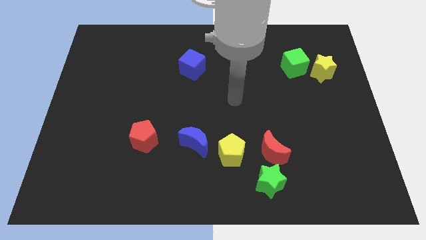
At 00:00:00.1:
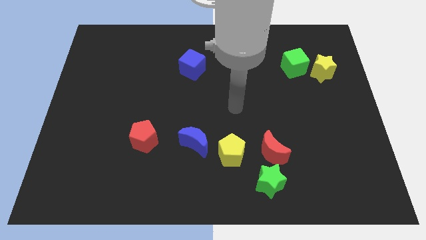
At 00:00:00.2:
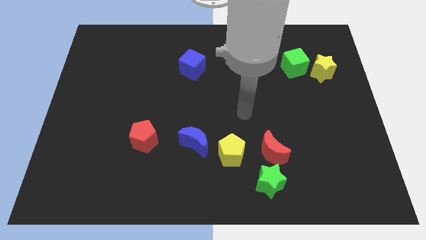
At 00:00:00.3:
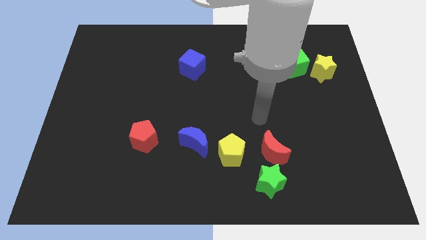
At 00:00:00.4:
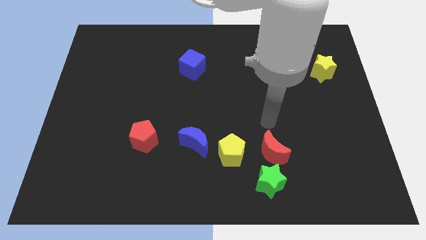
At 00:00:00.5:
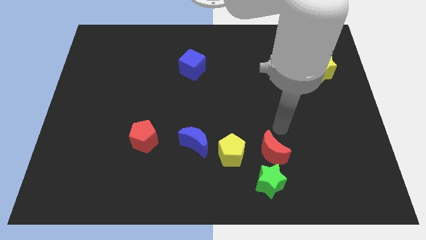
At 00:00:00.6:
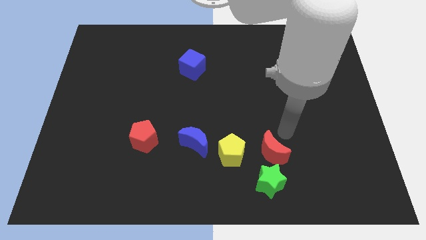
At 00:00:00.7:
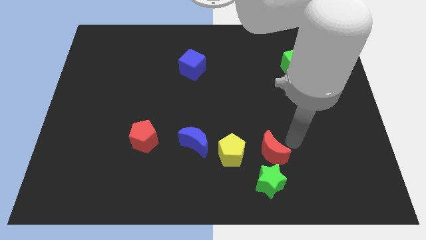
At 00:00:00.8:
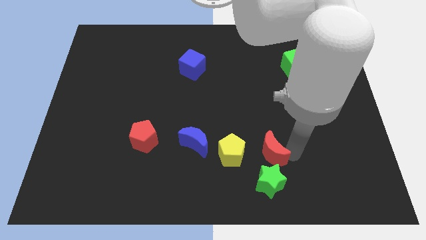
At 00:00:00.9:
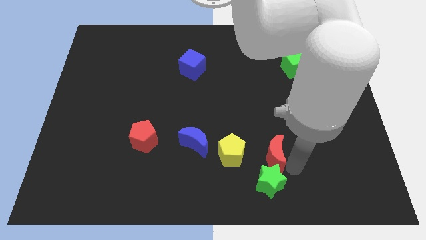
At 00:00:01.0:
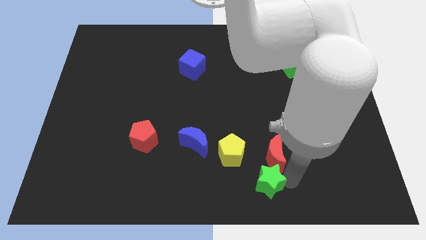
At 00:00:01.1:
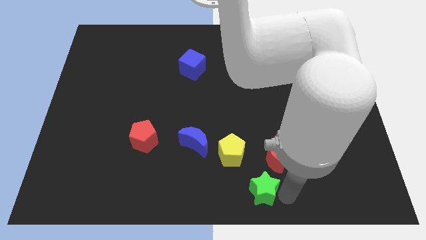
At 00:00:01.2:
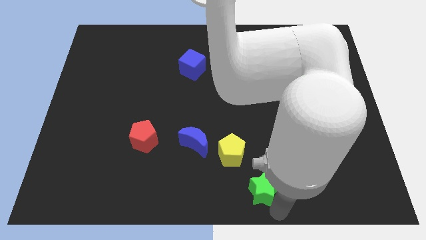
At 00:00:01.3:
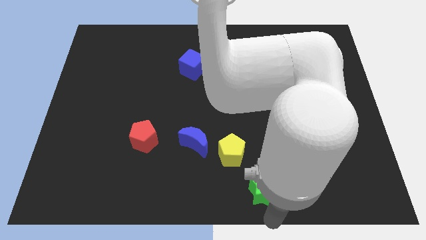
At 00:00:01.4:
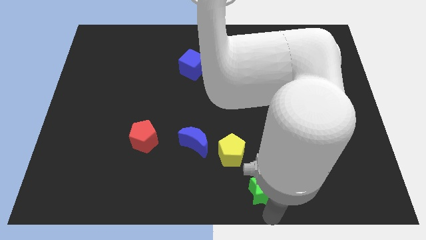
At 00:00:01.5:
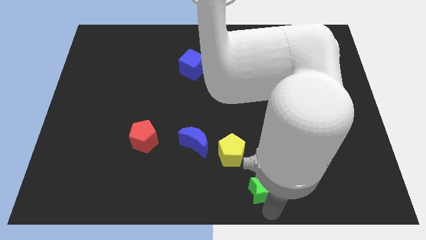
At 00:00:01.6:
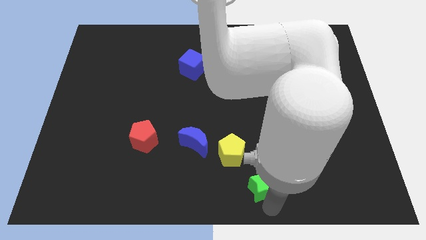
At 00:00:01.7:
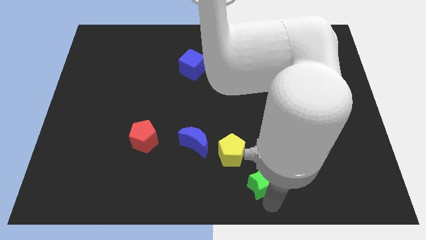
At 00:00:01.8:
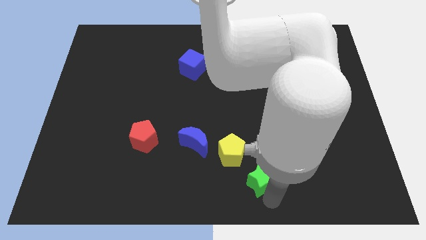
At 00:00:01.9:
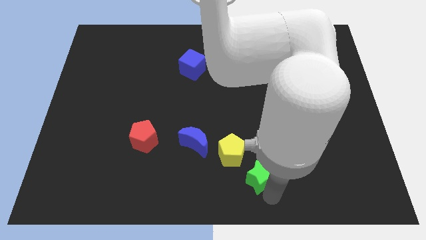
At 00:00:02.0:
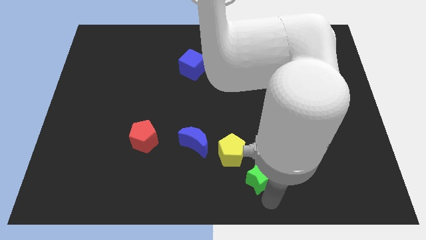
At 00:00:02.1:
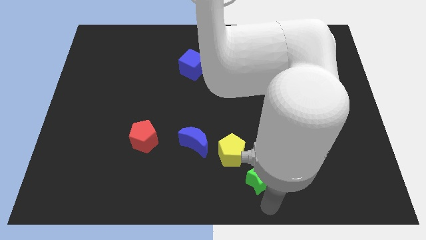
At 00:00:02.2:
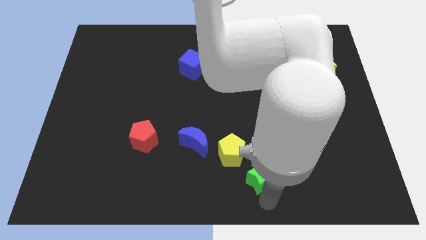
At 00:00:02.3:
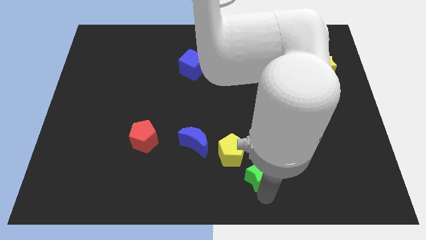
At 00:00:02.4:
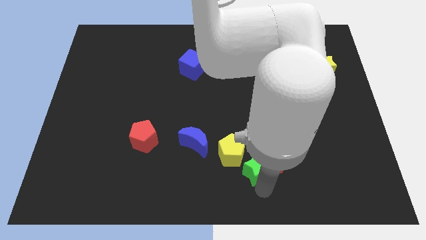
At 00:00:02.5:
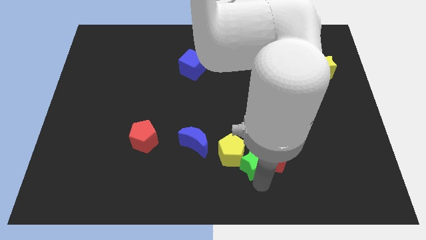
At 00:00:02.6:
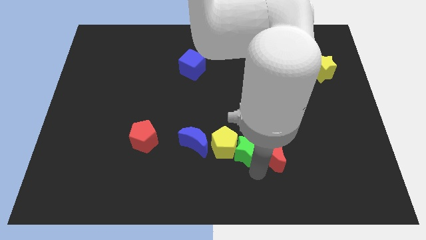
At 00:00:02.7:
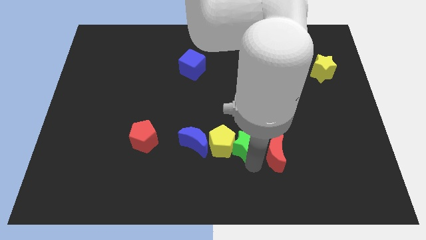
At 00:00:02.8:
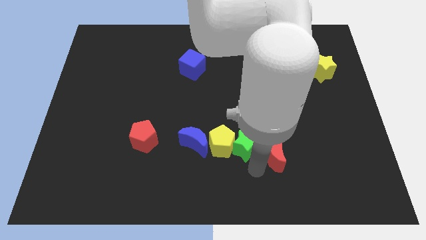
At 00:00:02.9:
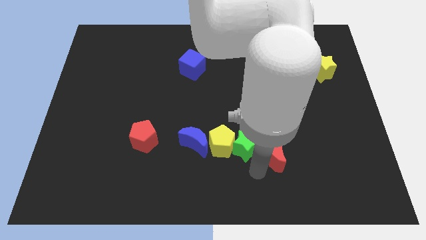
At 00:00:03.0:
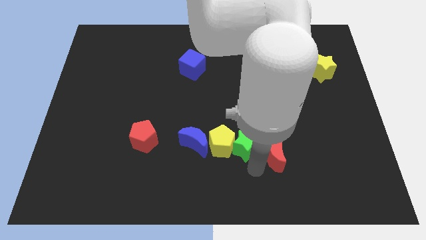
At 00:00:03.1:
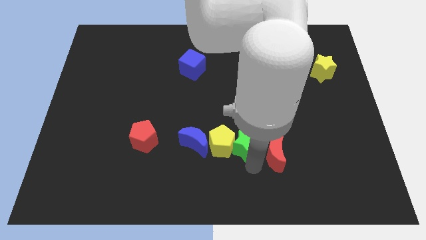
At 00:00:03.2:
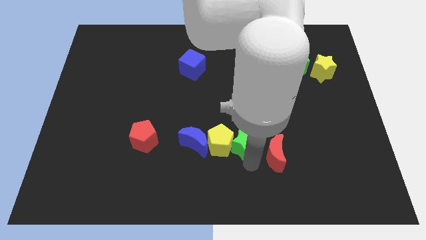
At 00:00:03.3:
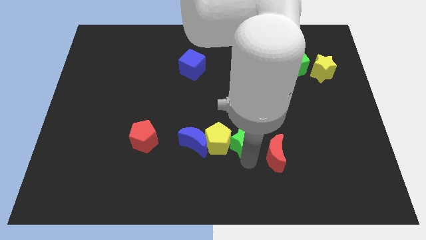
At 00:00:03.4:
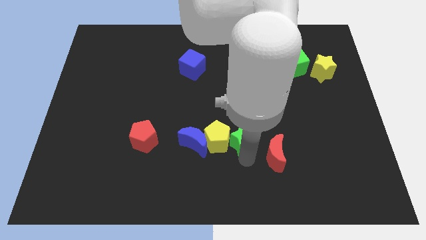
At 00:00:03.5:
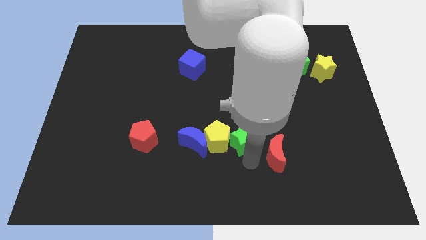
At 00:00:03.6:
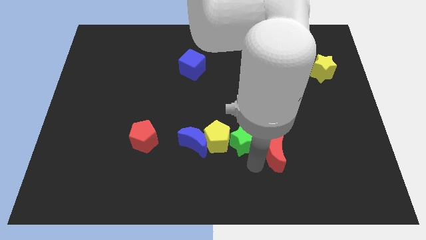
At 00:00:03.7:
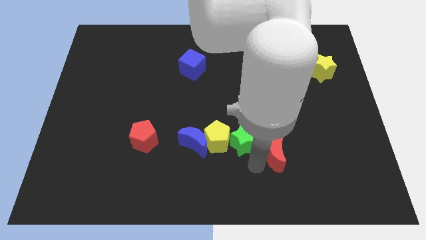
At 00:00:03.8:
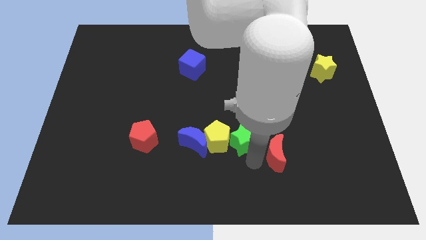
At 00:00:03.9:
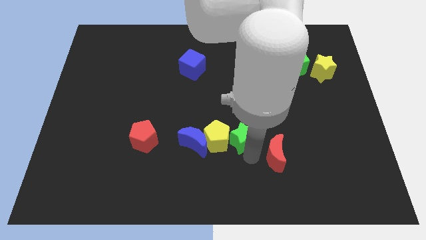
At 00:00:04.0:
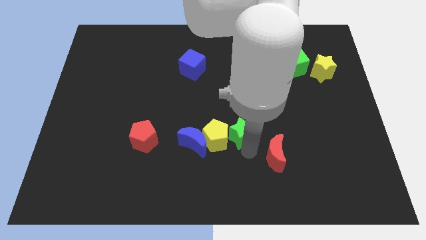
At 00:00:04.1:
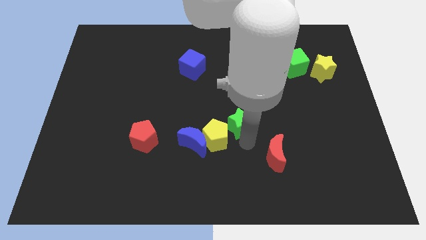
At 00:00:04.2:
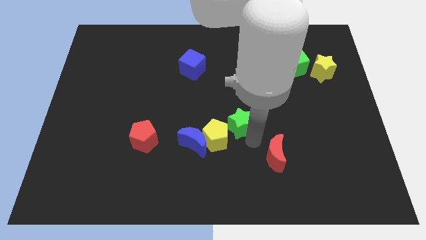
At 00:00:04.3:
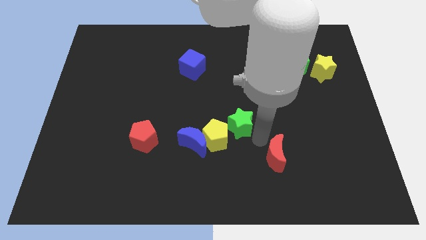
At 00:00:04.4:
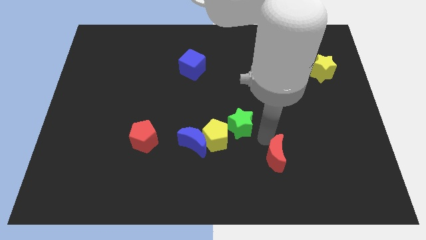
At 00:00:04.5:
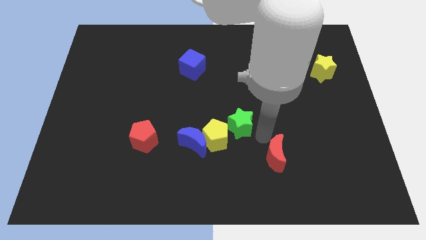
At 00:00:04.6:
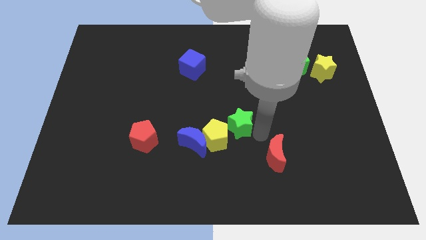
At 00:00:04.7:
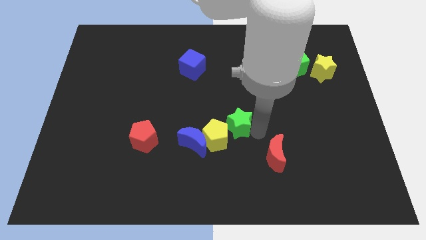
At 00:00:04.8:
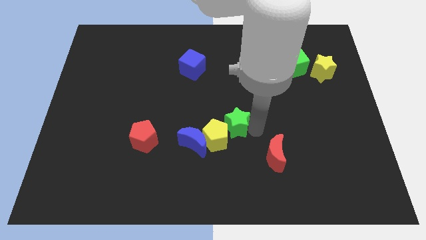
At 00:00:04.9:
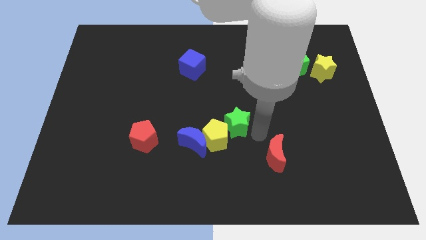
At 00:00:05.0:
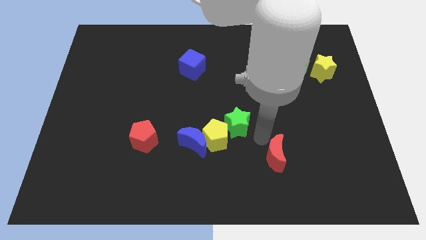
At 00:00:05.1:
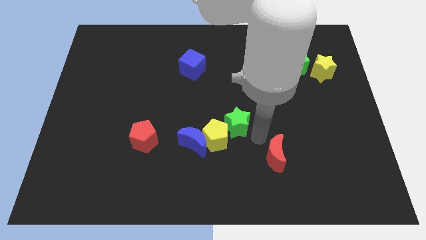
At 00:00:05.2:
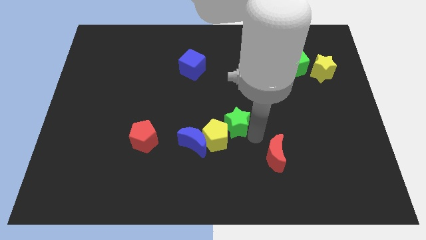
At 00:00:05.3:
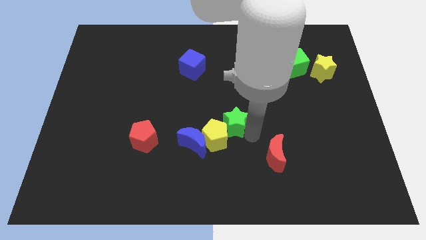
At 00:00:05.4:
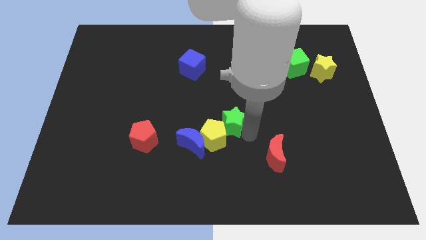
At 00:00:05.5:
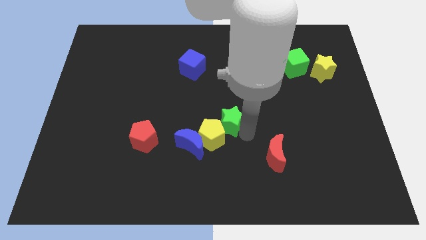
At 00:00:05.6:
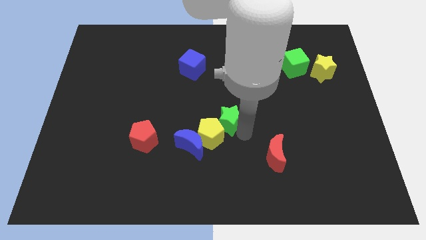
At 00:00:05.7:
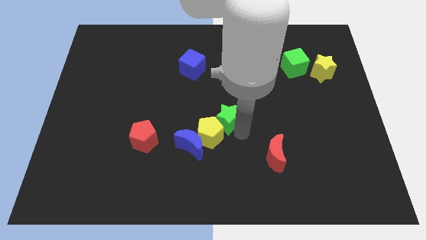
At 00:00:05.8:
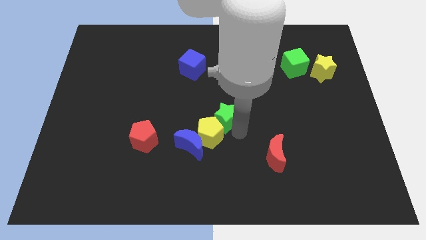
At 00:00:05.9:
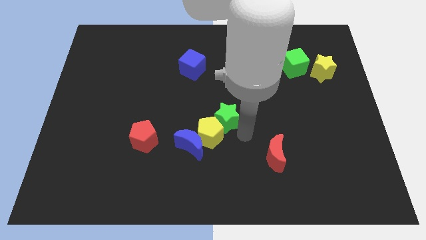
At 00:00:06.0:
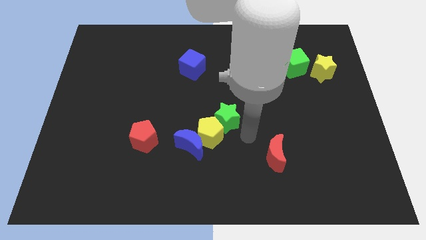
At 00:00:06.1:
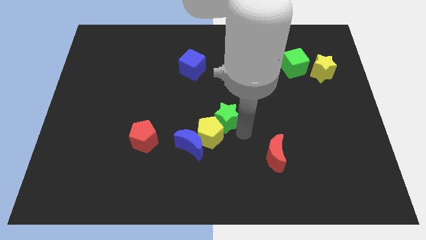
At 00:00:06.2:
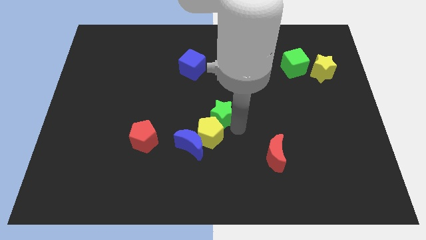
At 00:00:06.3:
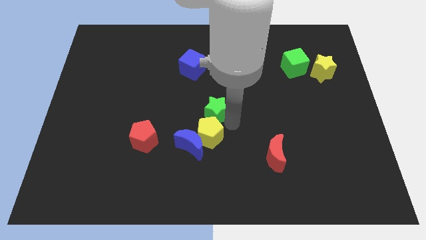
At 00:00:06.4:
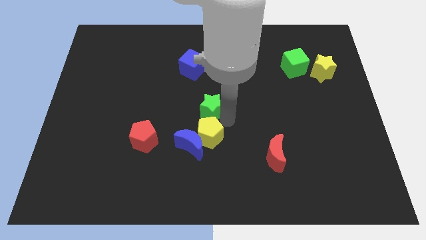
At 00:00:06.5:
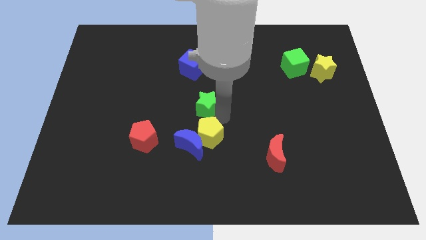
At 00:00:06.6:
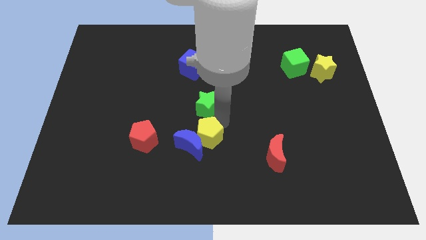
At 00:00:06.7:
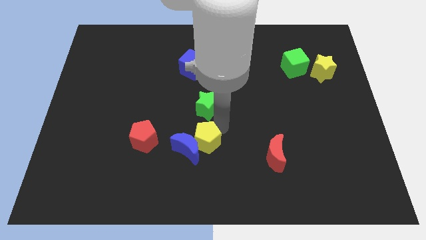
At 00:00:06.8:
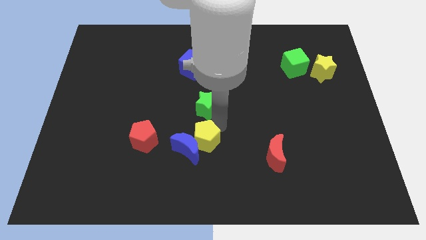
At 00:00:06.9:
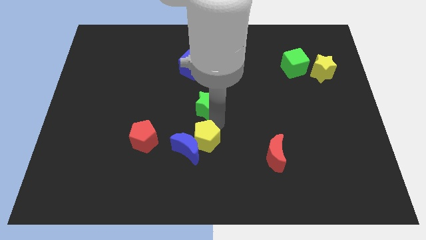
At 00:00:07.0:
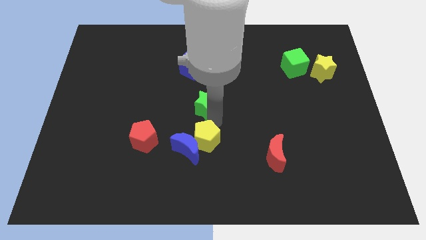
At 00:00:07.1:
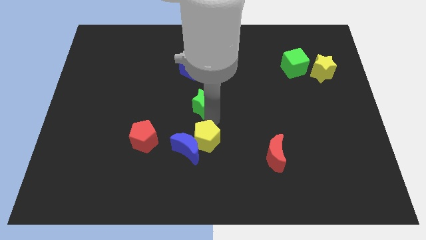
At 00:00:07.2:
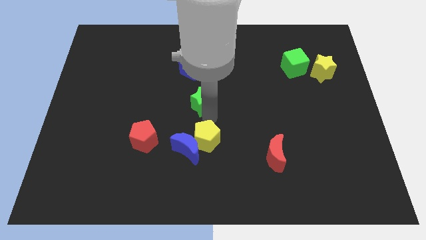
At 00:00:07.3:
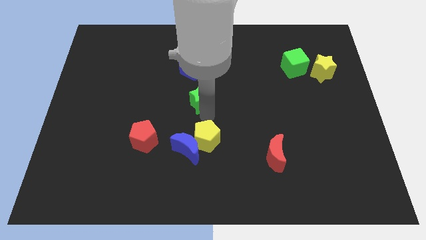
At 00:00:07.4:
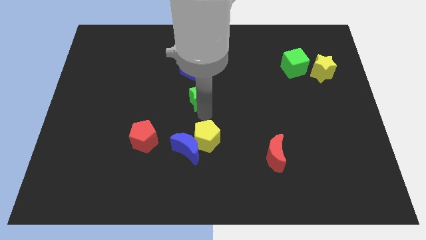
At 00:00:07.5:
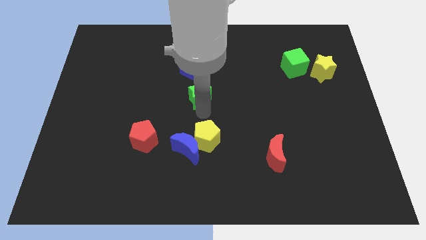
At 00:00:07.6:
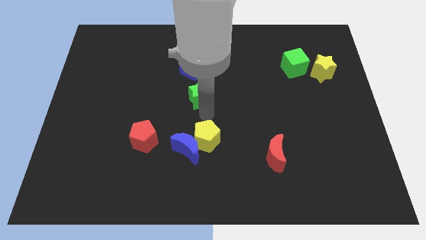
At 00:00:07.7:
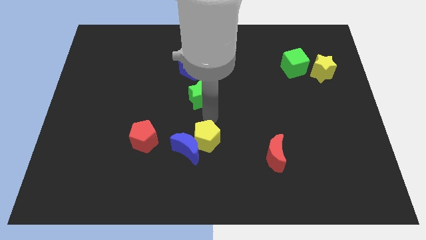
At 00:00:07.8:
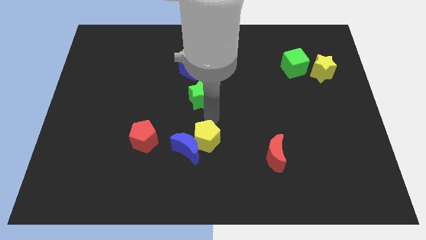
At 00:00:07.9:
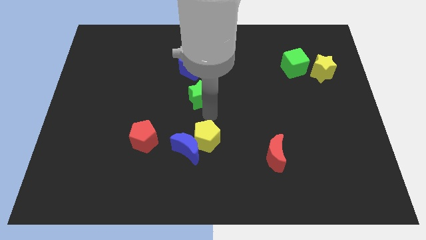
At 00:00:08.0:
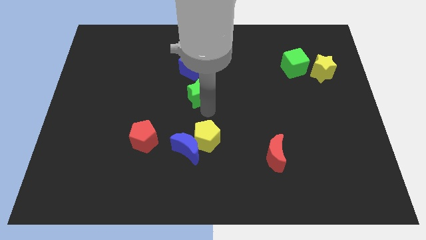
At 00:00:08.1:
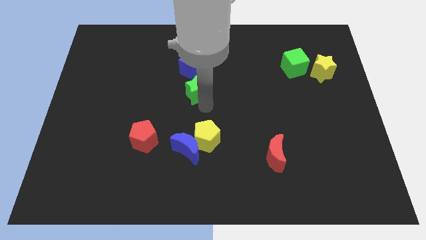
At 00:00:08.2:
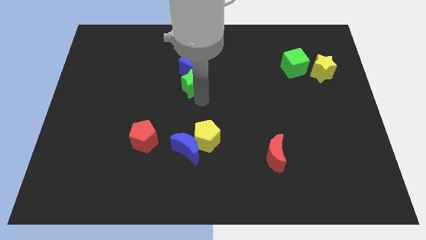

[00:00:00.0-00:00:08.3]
slide the green star towards the blue cube
